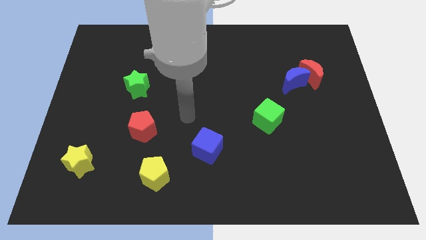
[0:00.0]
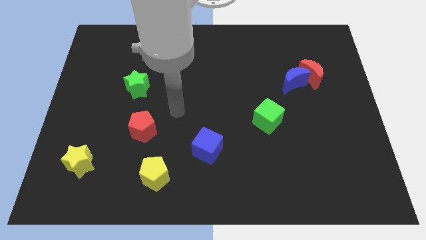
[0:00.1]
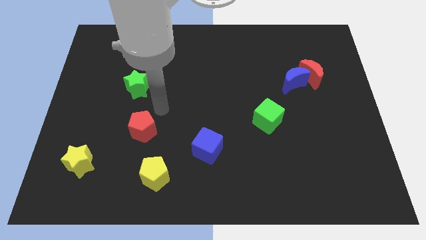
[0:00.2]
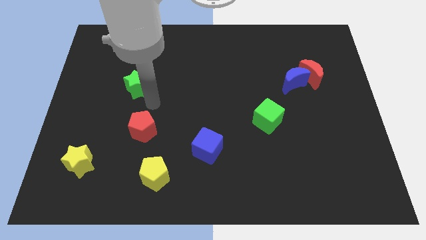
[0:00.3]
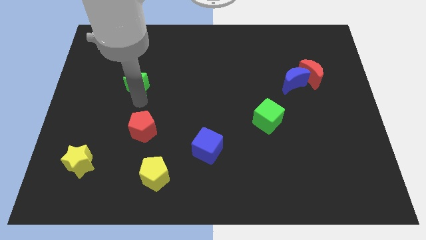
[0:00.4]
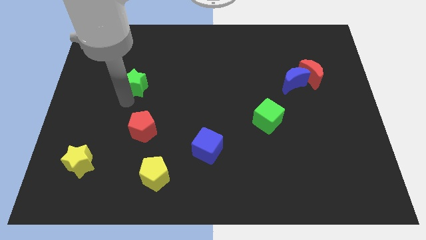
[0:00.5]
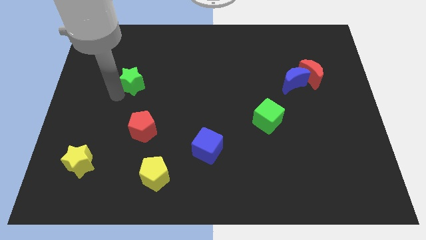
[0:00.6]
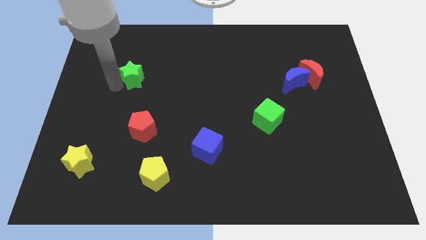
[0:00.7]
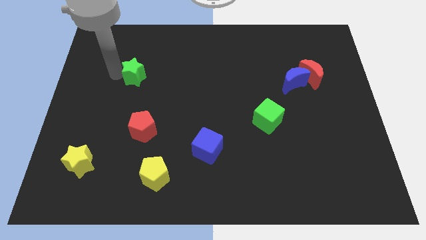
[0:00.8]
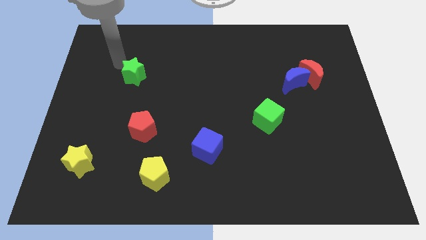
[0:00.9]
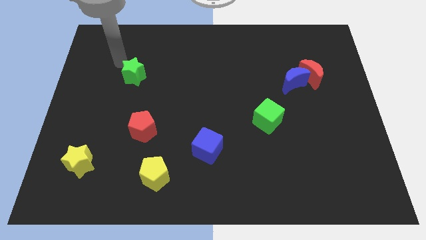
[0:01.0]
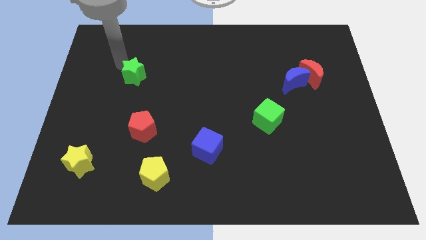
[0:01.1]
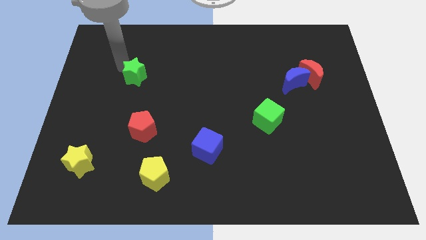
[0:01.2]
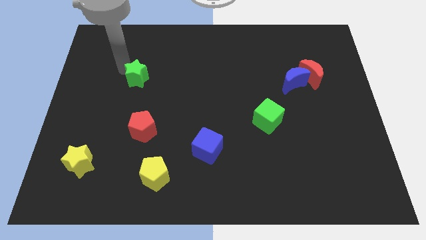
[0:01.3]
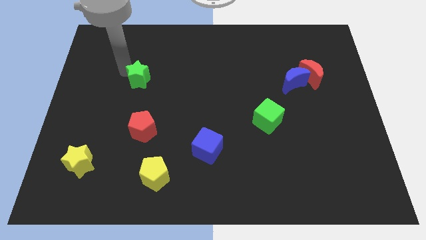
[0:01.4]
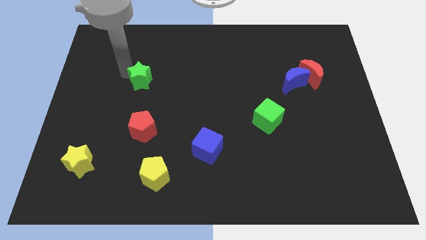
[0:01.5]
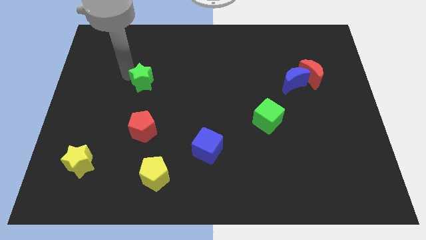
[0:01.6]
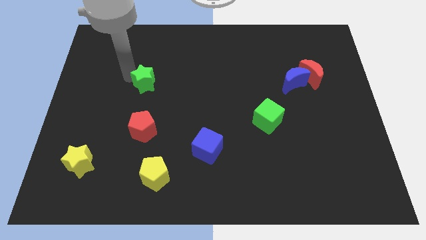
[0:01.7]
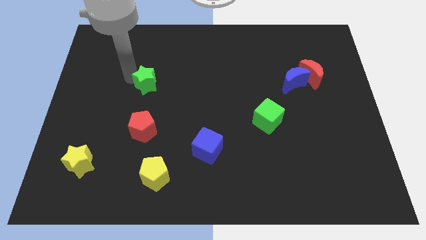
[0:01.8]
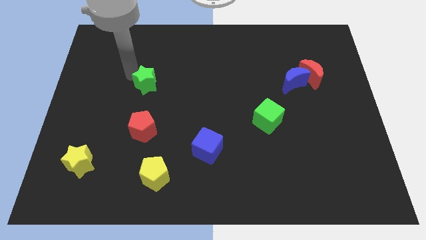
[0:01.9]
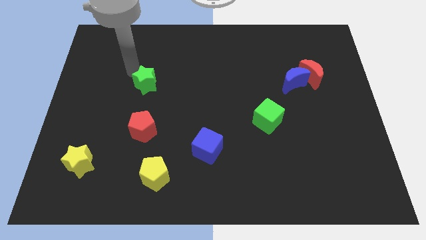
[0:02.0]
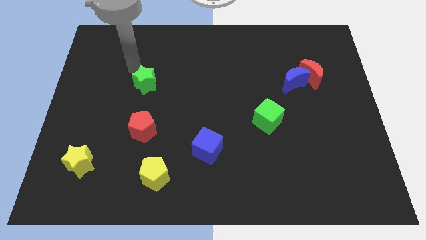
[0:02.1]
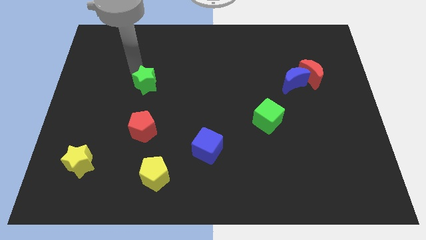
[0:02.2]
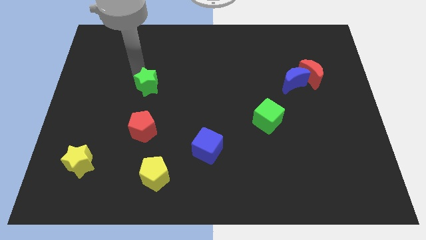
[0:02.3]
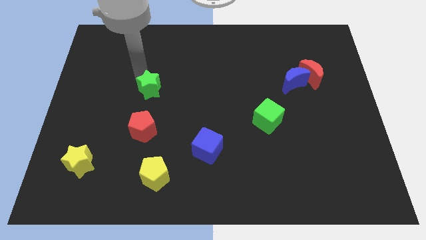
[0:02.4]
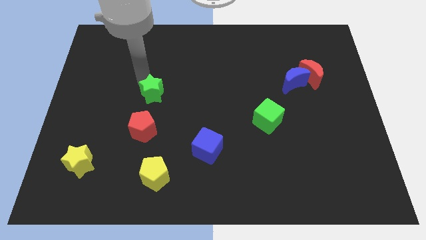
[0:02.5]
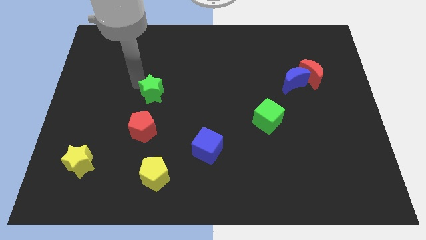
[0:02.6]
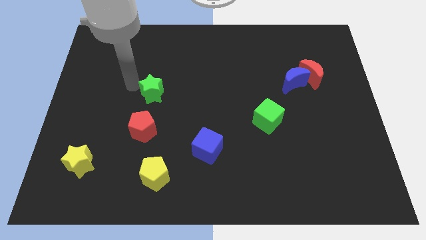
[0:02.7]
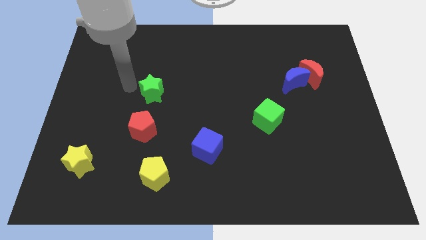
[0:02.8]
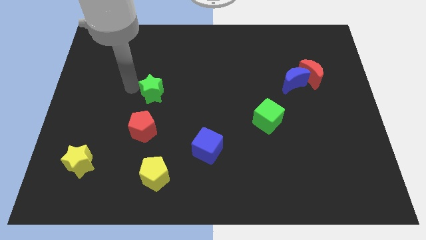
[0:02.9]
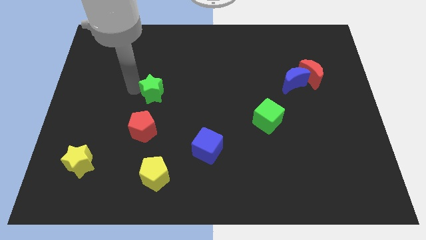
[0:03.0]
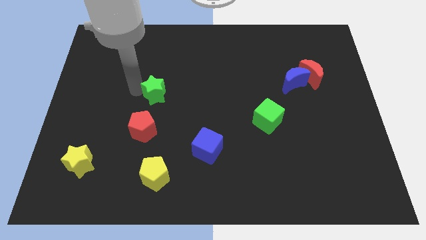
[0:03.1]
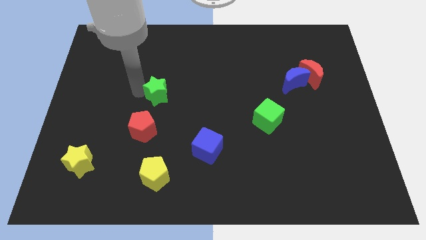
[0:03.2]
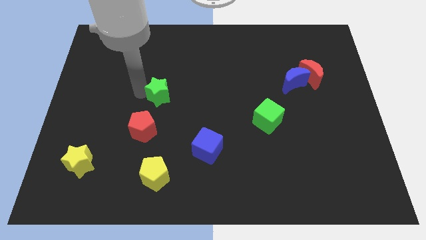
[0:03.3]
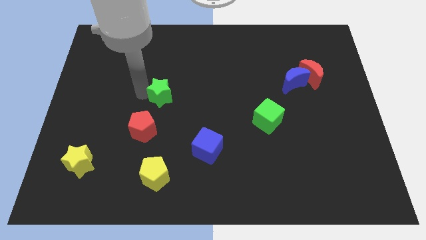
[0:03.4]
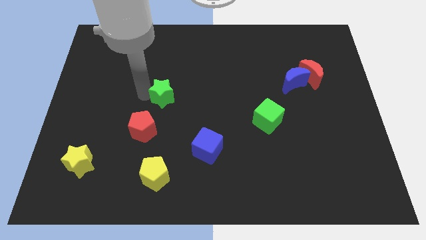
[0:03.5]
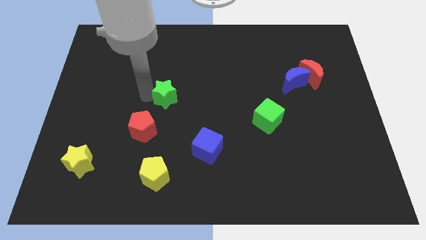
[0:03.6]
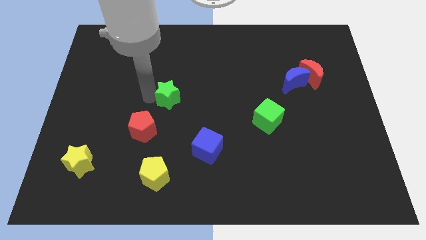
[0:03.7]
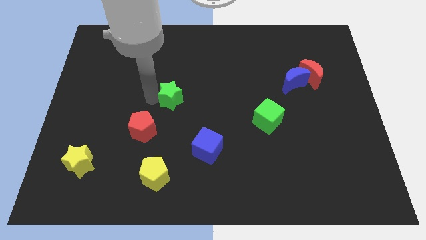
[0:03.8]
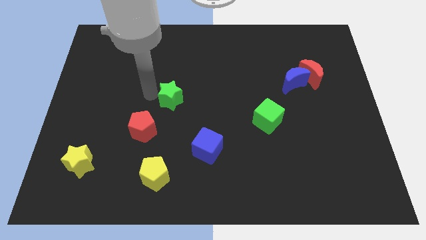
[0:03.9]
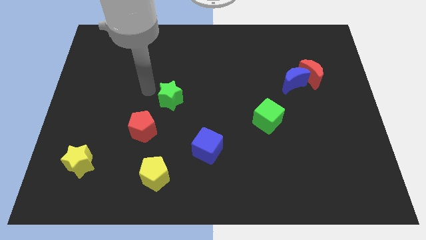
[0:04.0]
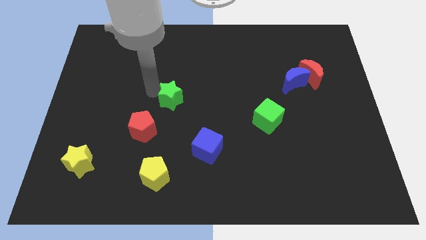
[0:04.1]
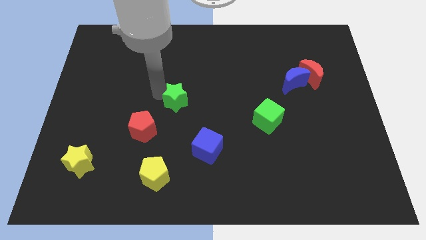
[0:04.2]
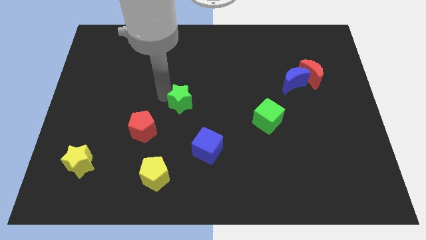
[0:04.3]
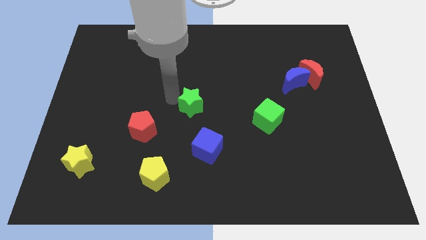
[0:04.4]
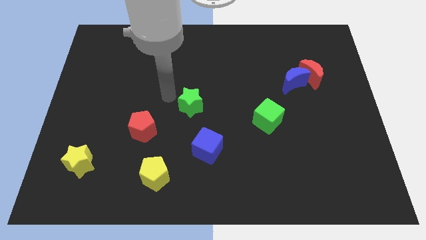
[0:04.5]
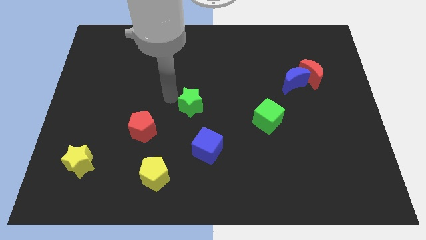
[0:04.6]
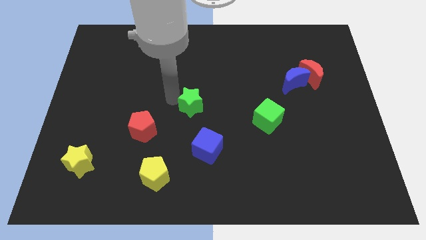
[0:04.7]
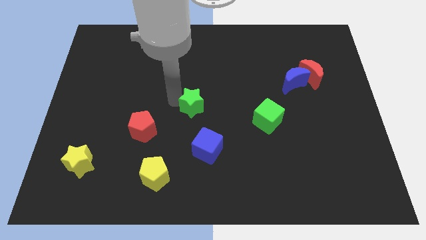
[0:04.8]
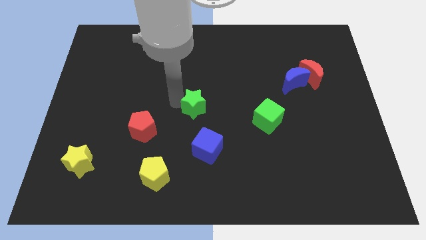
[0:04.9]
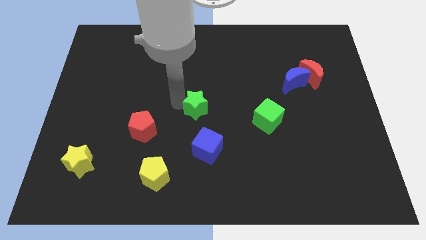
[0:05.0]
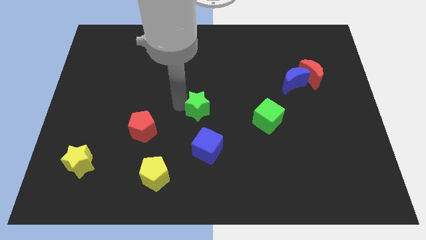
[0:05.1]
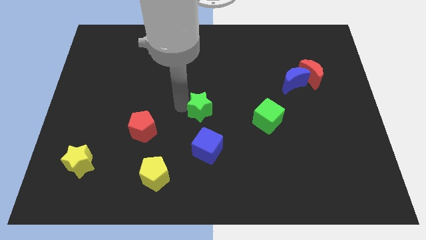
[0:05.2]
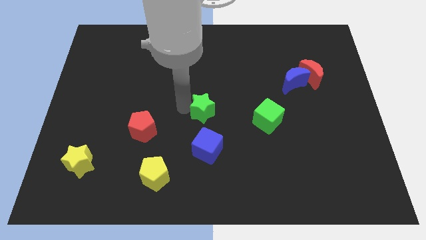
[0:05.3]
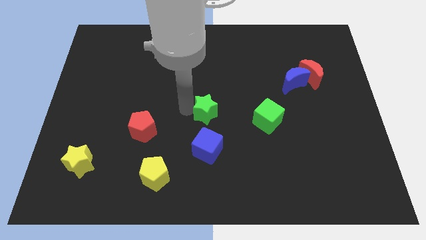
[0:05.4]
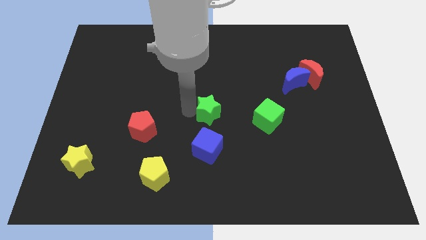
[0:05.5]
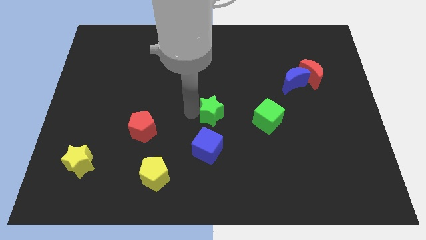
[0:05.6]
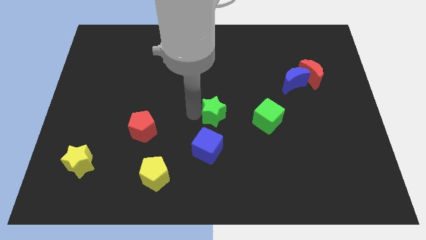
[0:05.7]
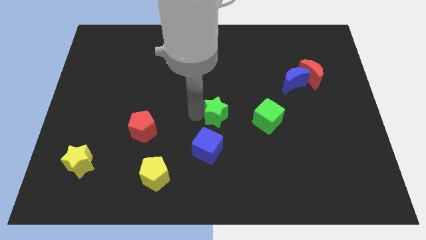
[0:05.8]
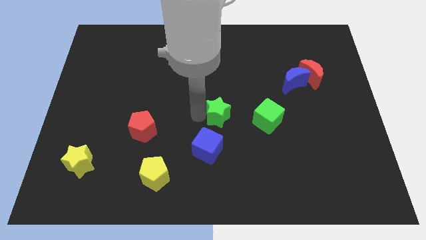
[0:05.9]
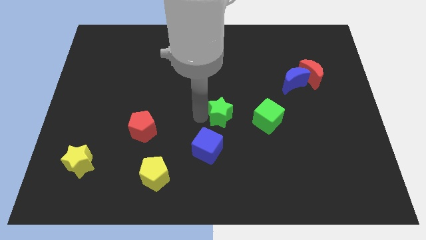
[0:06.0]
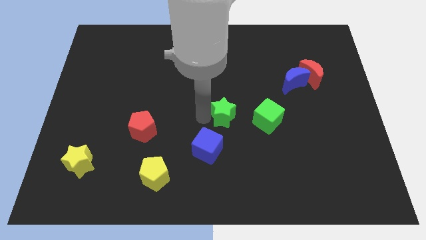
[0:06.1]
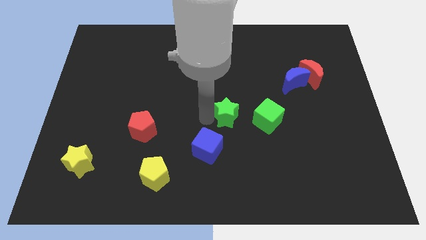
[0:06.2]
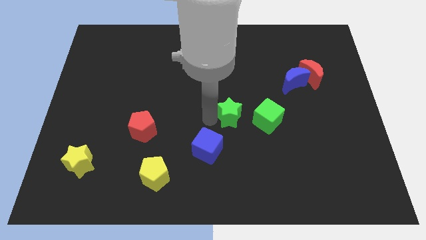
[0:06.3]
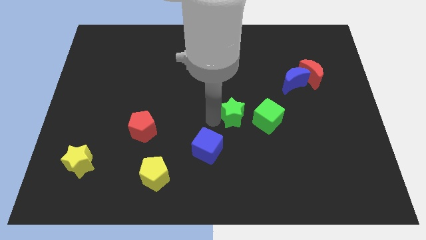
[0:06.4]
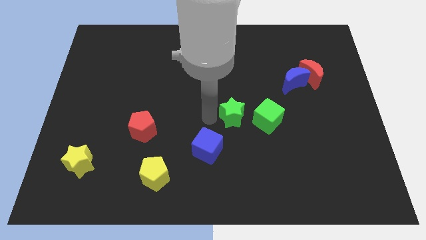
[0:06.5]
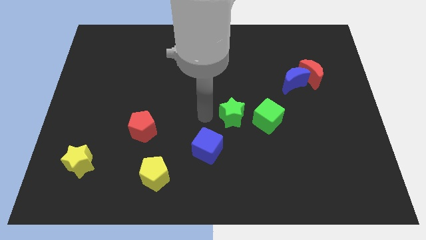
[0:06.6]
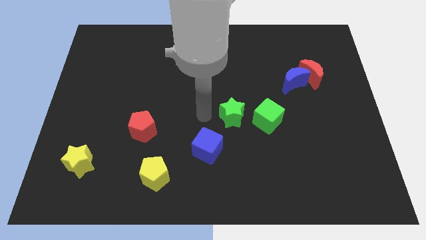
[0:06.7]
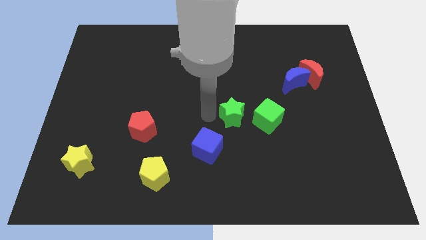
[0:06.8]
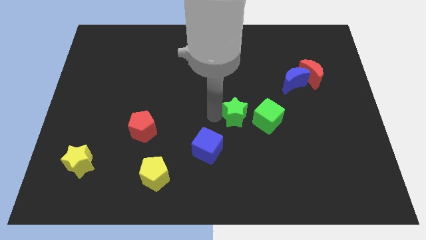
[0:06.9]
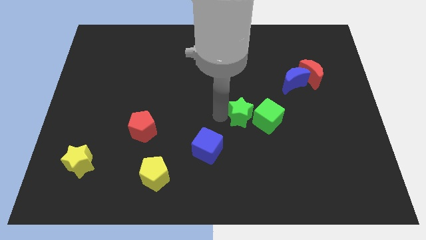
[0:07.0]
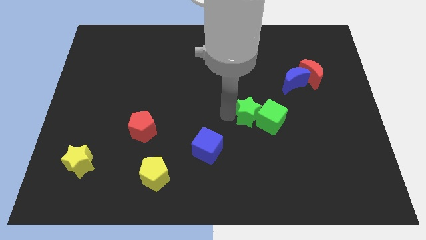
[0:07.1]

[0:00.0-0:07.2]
put the green star to the green cube
